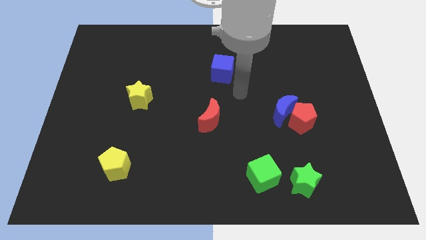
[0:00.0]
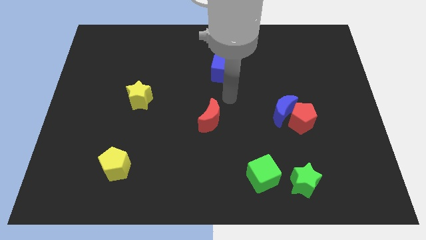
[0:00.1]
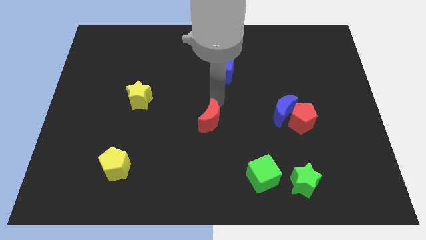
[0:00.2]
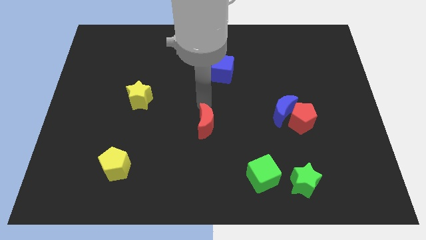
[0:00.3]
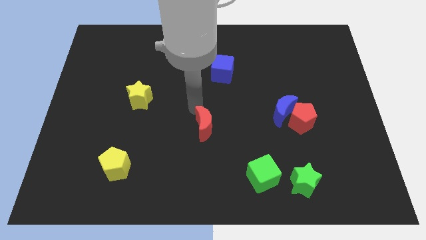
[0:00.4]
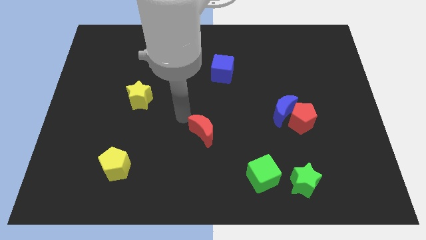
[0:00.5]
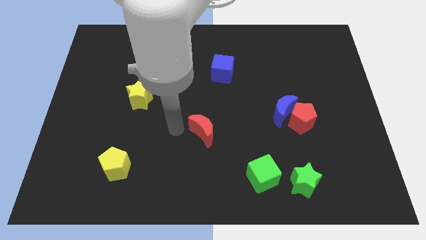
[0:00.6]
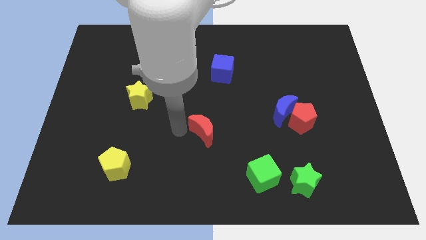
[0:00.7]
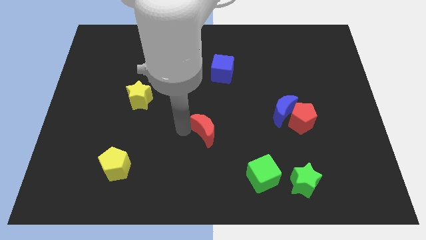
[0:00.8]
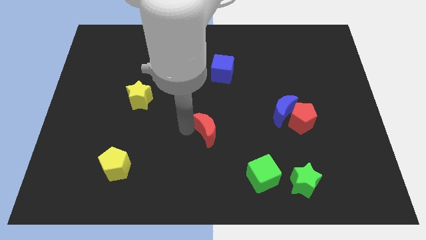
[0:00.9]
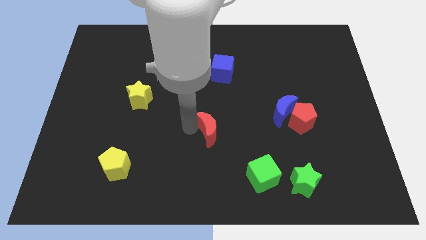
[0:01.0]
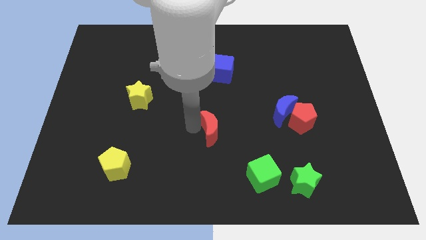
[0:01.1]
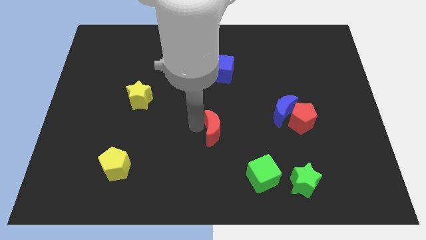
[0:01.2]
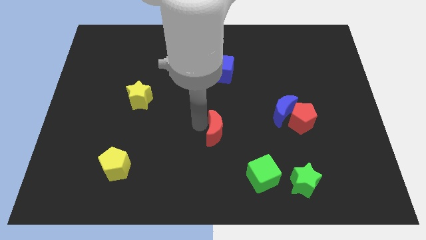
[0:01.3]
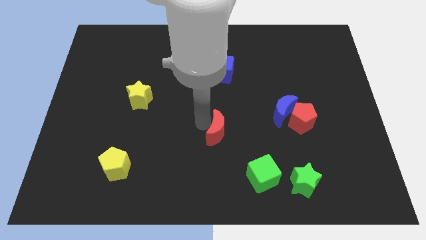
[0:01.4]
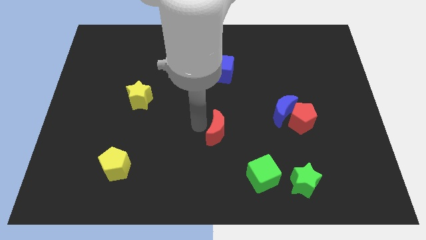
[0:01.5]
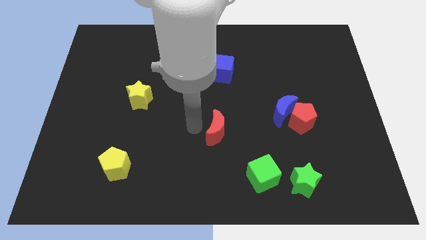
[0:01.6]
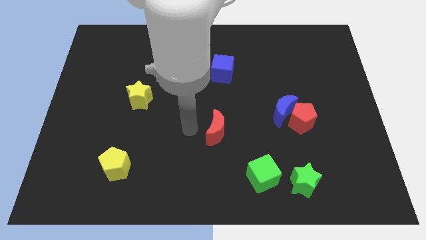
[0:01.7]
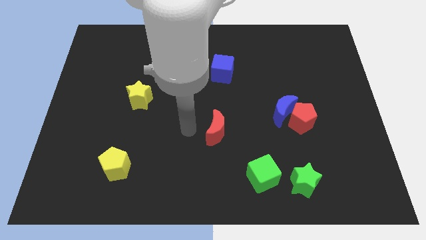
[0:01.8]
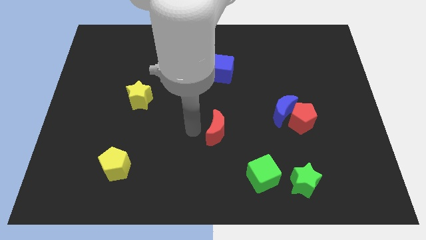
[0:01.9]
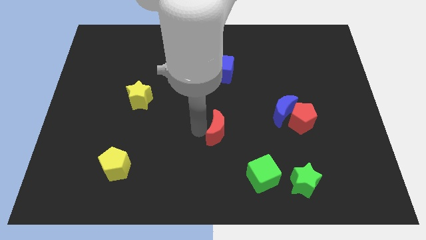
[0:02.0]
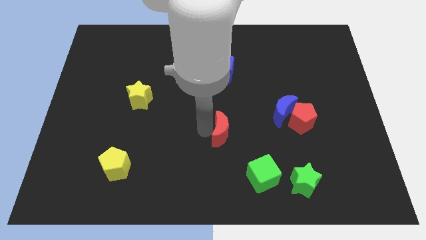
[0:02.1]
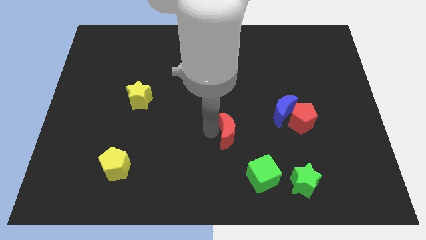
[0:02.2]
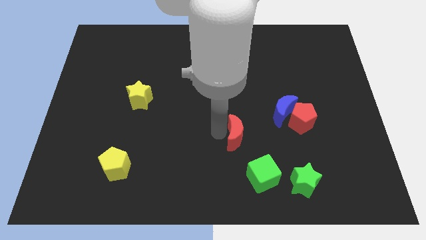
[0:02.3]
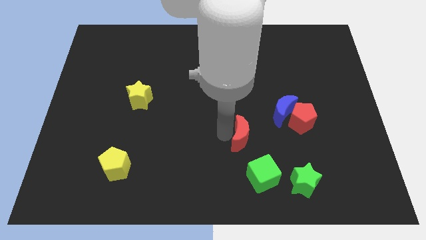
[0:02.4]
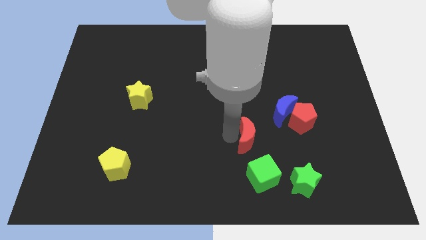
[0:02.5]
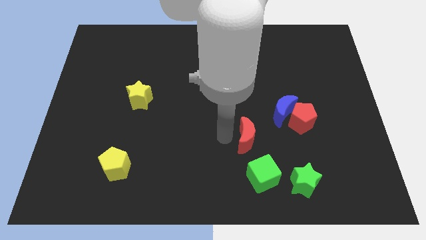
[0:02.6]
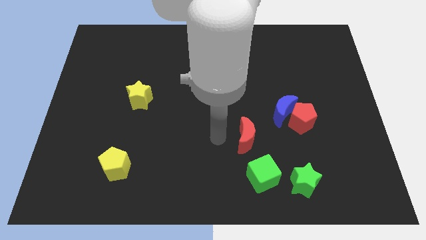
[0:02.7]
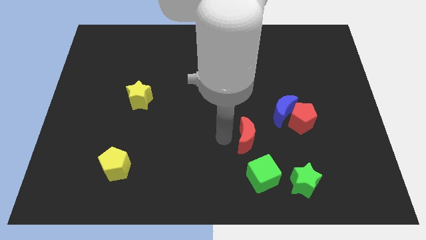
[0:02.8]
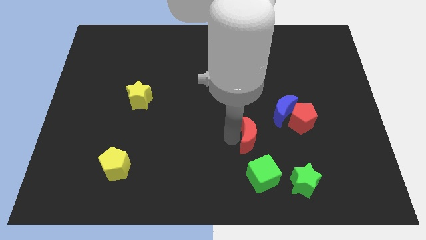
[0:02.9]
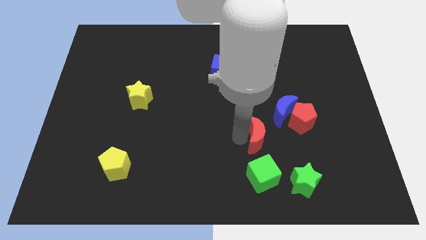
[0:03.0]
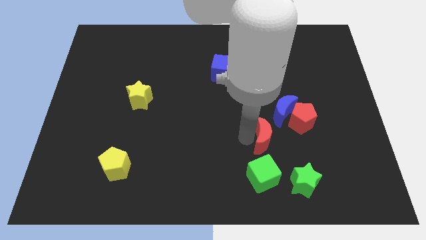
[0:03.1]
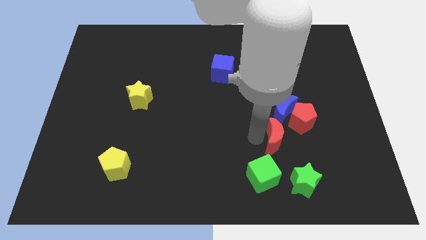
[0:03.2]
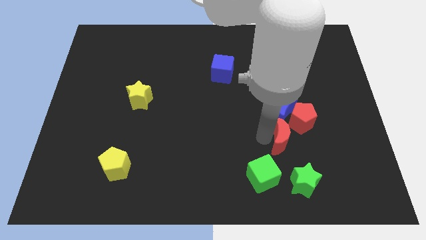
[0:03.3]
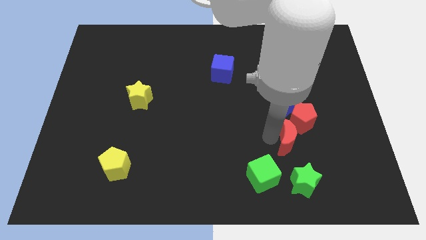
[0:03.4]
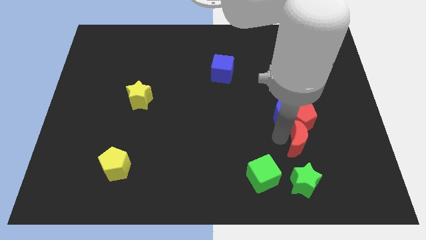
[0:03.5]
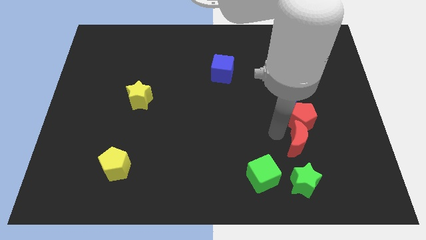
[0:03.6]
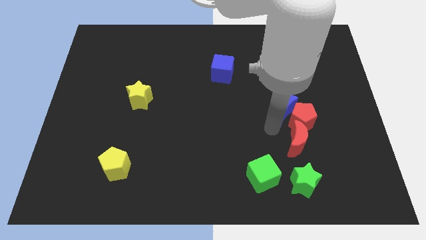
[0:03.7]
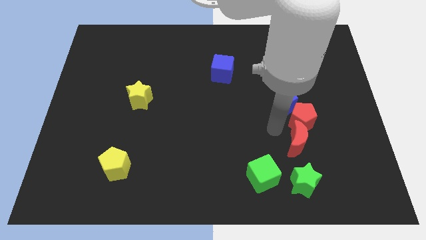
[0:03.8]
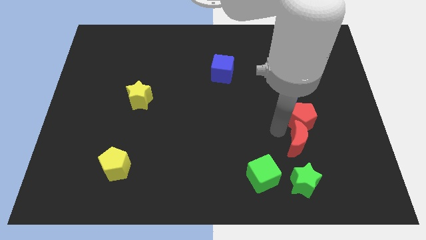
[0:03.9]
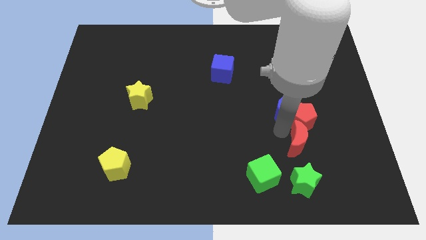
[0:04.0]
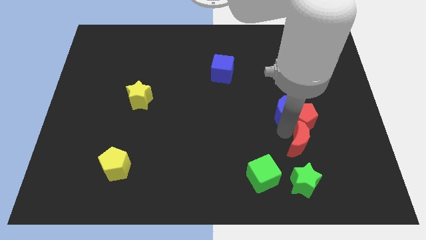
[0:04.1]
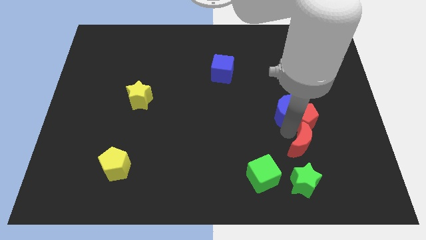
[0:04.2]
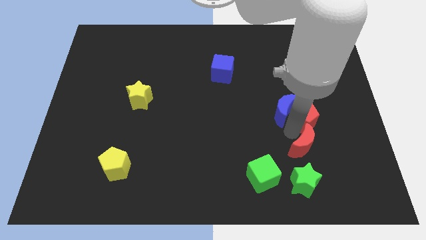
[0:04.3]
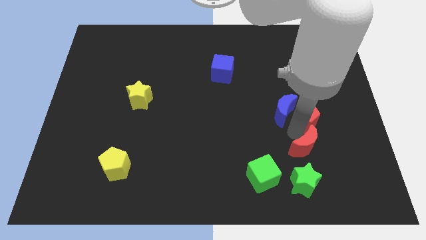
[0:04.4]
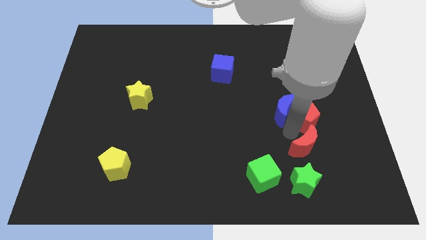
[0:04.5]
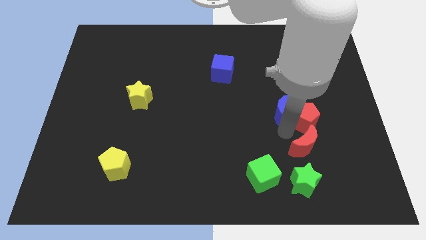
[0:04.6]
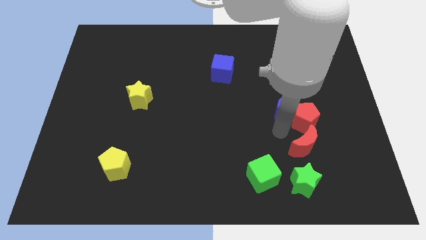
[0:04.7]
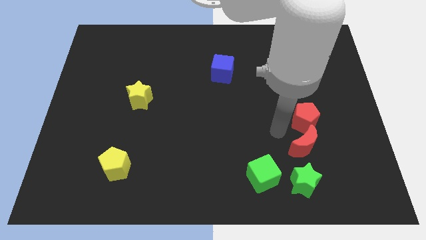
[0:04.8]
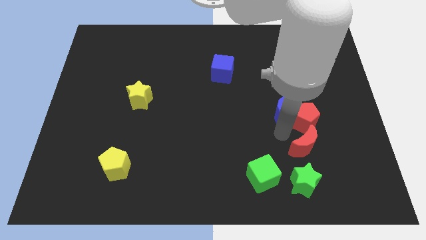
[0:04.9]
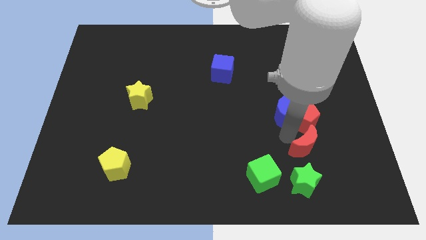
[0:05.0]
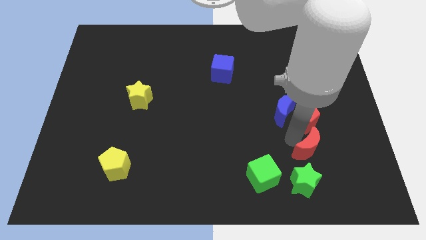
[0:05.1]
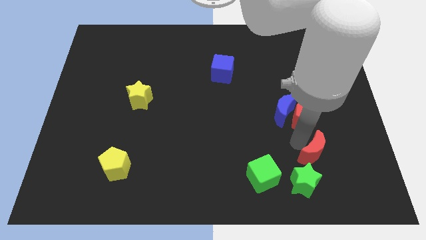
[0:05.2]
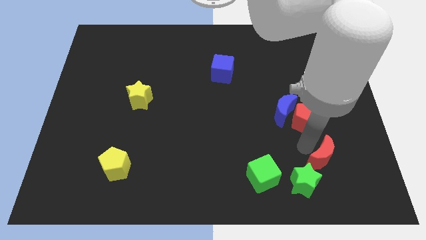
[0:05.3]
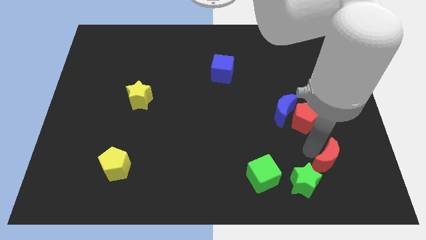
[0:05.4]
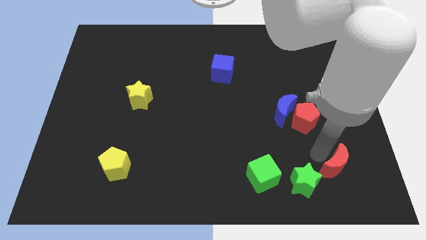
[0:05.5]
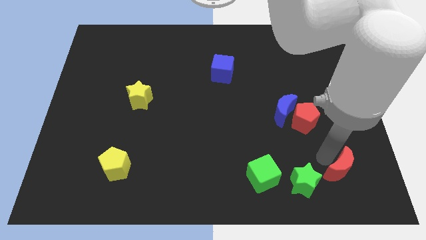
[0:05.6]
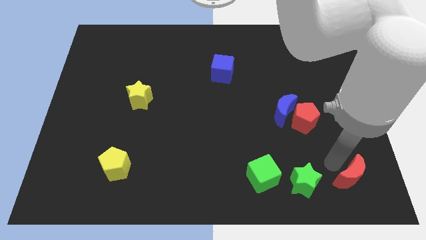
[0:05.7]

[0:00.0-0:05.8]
push the red moon to the lower right corner

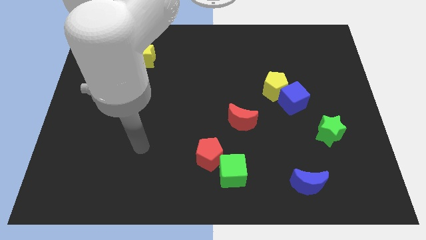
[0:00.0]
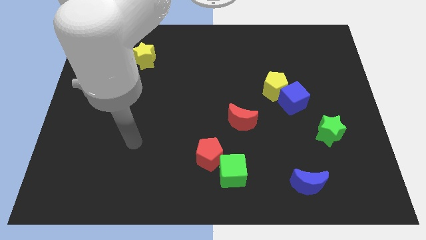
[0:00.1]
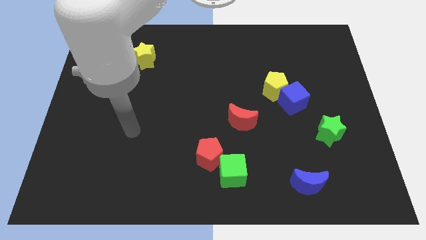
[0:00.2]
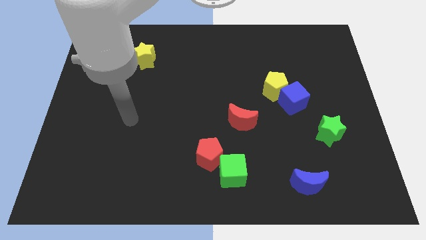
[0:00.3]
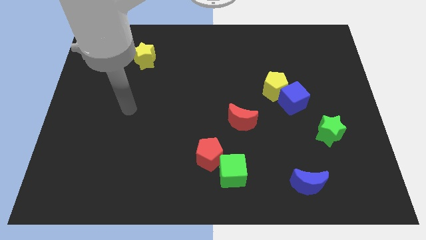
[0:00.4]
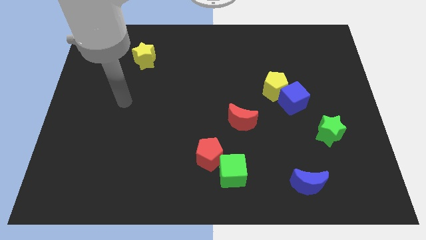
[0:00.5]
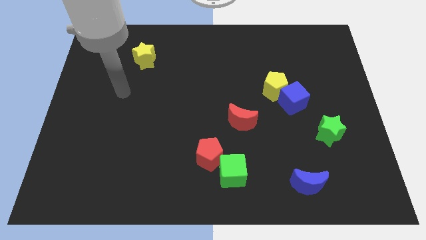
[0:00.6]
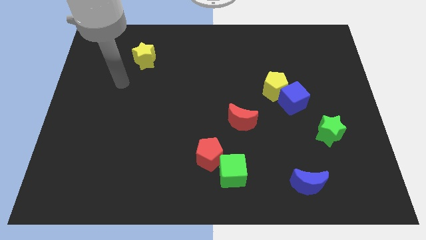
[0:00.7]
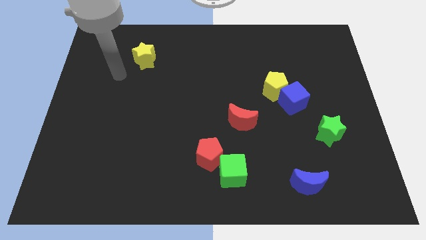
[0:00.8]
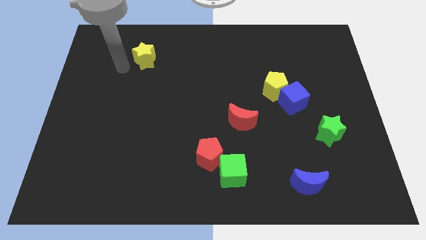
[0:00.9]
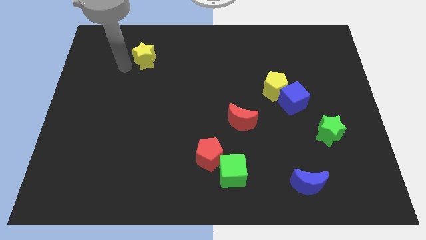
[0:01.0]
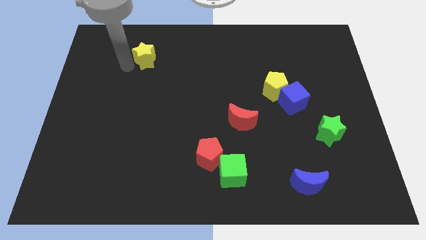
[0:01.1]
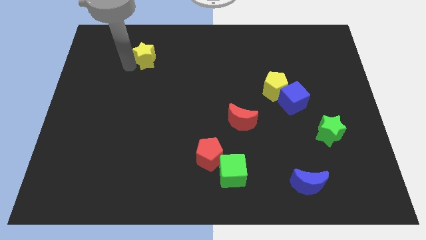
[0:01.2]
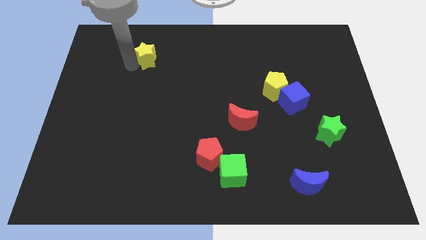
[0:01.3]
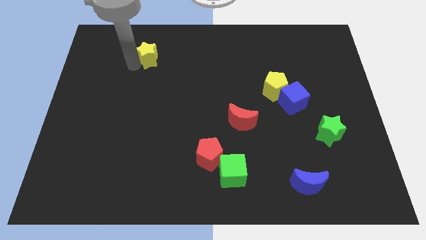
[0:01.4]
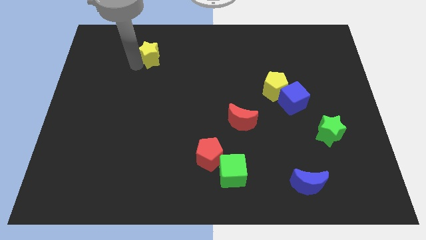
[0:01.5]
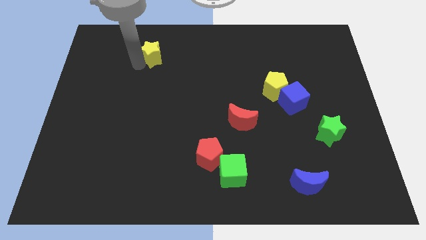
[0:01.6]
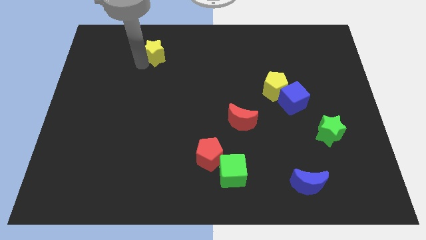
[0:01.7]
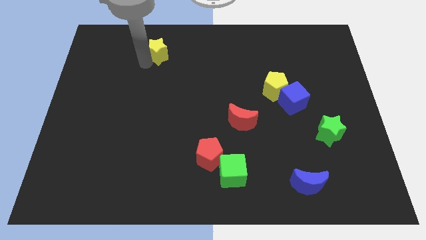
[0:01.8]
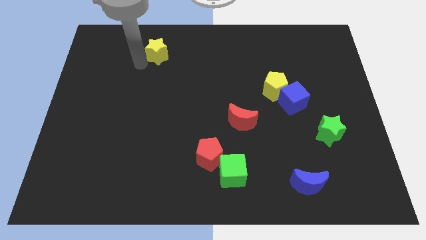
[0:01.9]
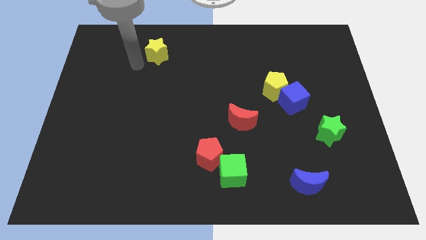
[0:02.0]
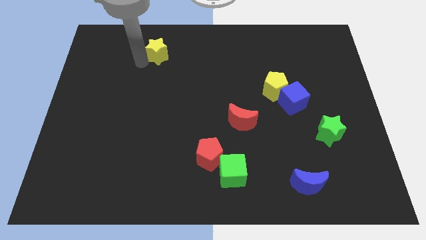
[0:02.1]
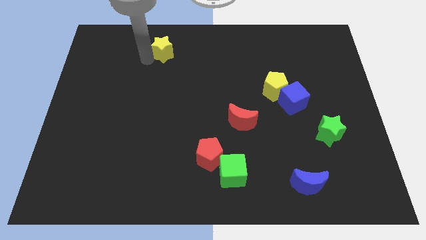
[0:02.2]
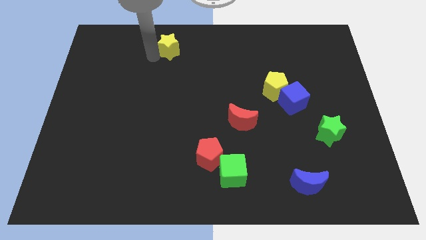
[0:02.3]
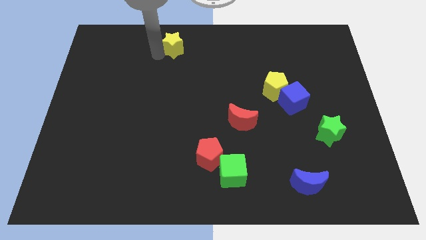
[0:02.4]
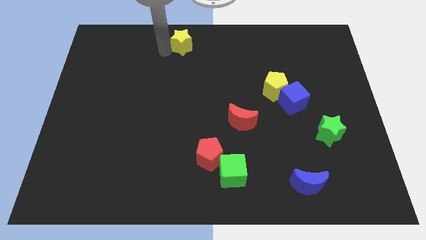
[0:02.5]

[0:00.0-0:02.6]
push the yellow star to the top side
